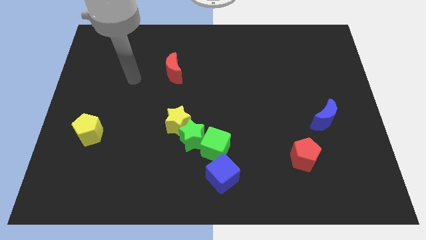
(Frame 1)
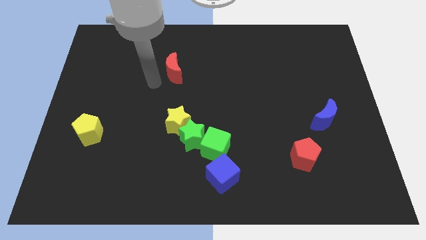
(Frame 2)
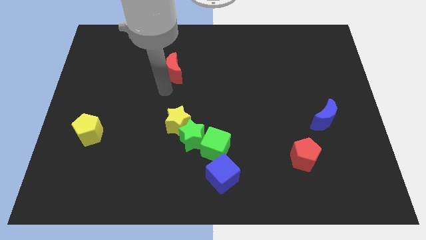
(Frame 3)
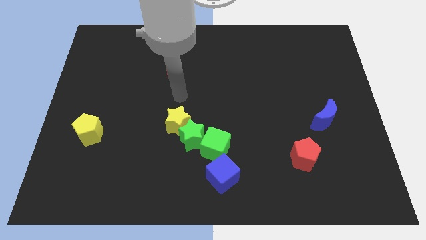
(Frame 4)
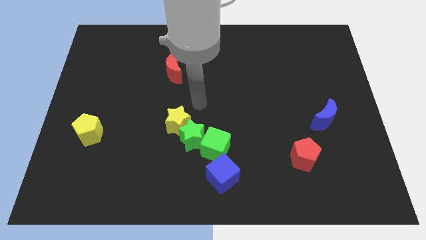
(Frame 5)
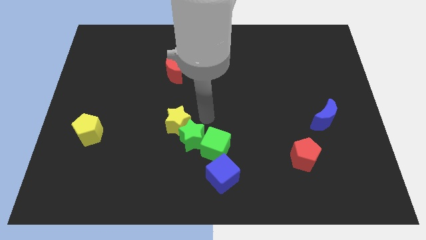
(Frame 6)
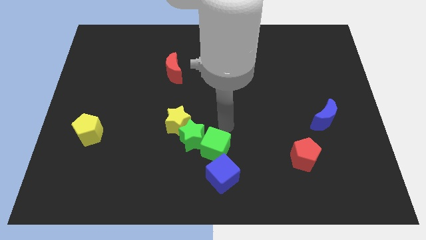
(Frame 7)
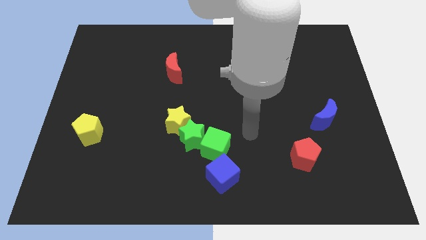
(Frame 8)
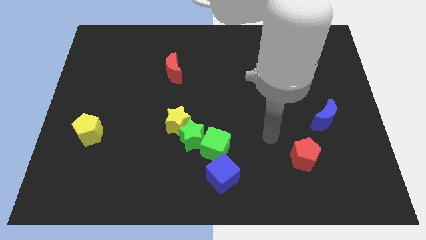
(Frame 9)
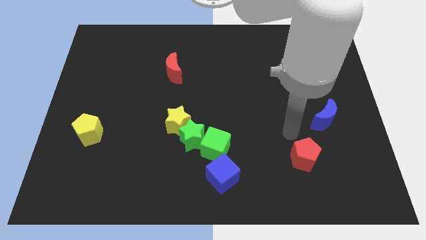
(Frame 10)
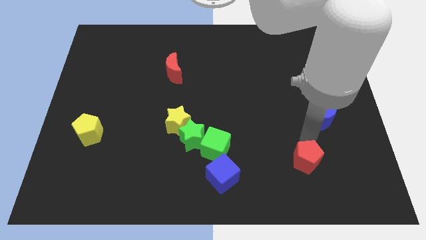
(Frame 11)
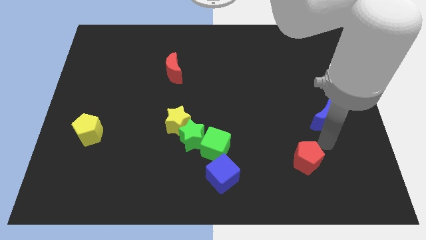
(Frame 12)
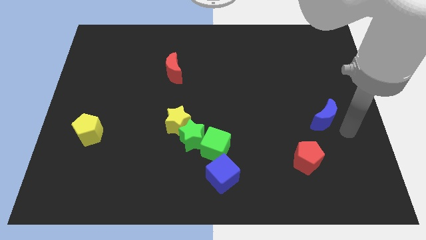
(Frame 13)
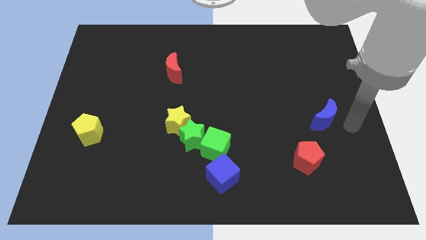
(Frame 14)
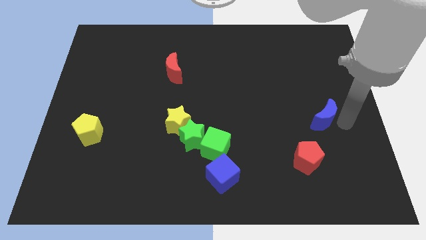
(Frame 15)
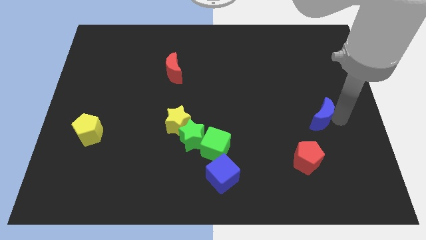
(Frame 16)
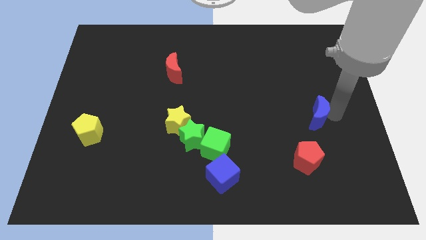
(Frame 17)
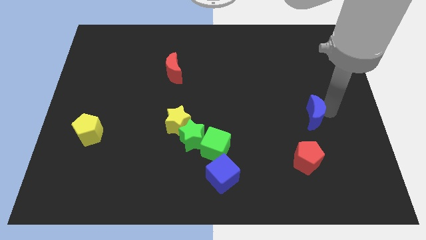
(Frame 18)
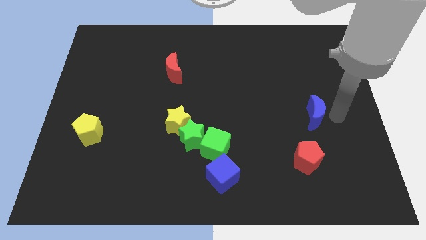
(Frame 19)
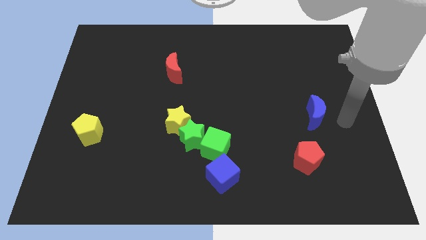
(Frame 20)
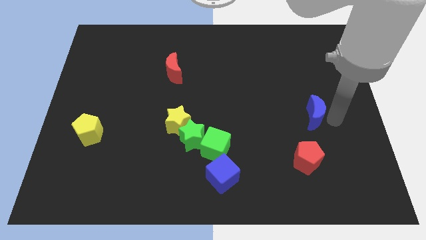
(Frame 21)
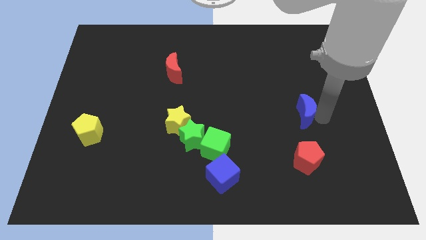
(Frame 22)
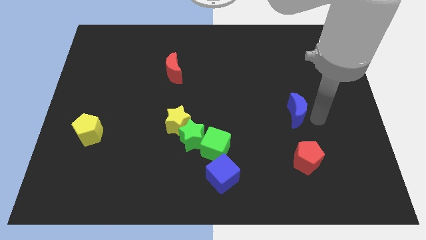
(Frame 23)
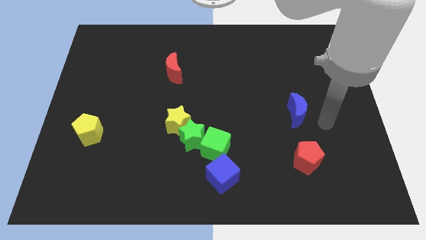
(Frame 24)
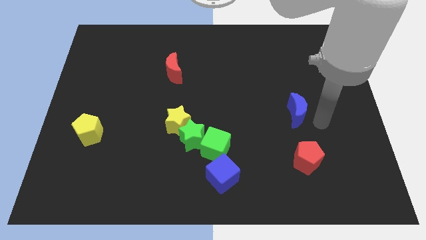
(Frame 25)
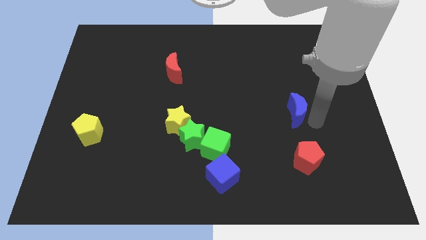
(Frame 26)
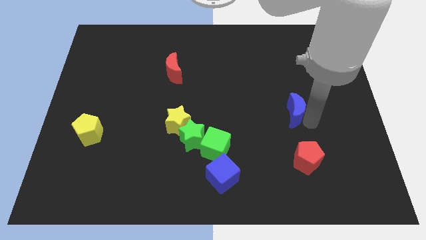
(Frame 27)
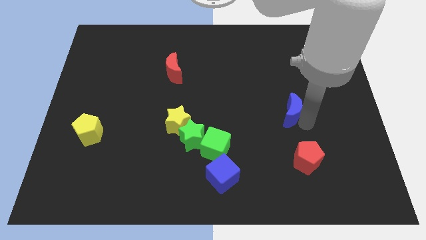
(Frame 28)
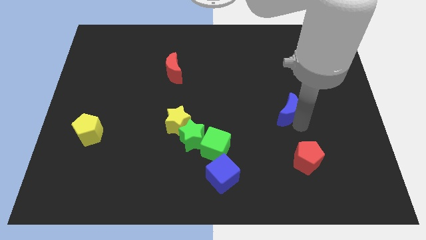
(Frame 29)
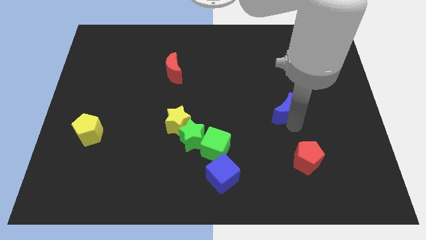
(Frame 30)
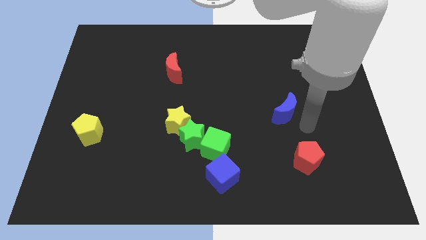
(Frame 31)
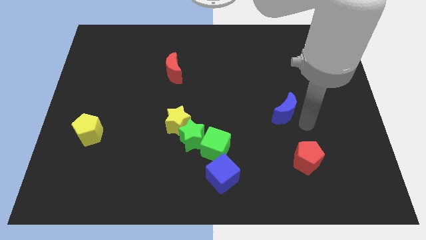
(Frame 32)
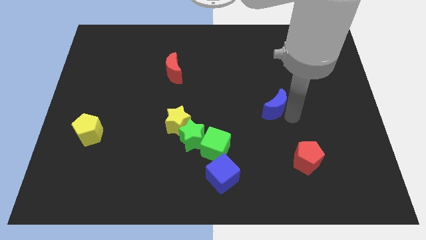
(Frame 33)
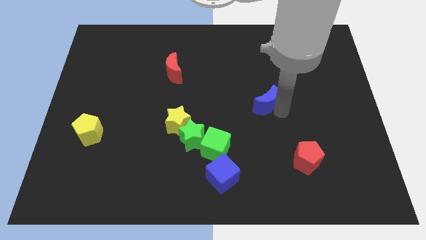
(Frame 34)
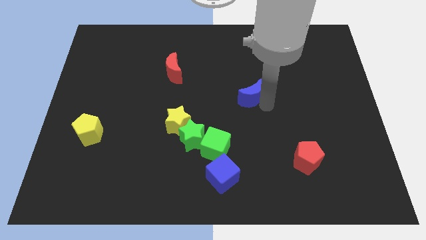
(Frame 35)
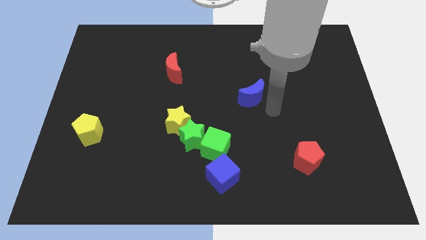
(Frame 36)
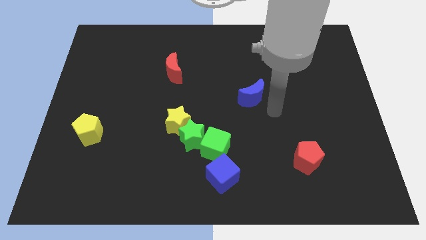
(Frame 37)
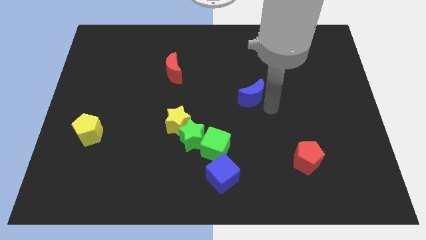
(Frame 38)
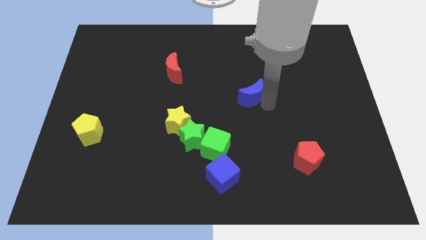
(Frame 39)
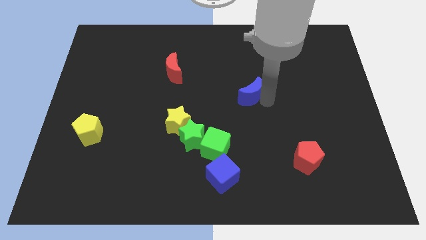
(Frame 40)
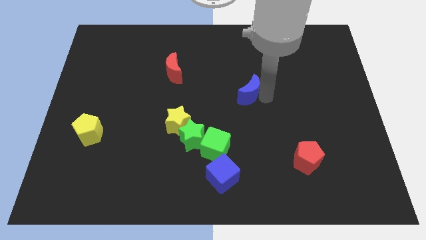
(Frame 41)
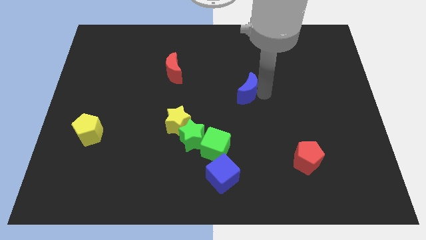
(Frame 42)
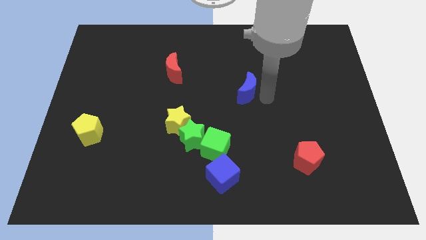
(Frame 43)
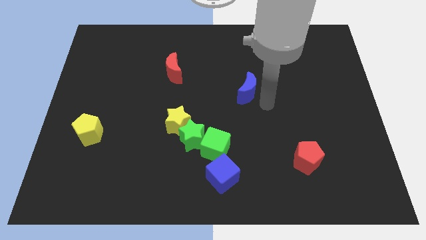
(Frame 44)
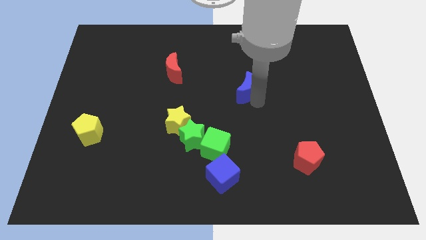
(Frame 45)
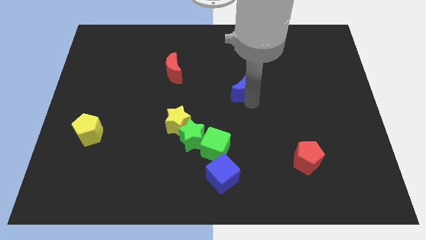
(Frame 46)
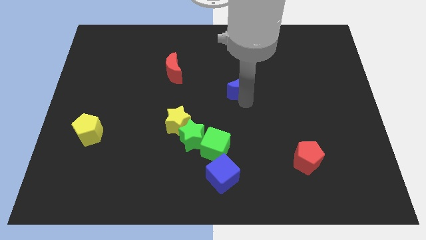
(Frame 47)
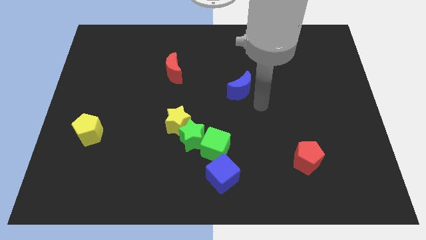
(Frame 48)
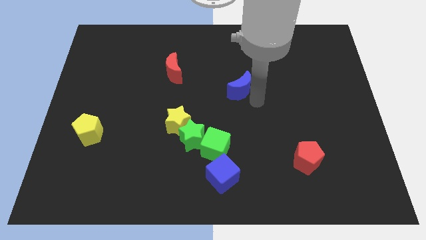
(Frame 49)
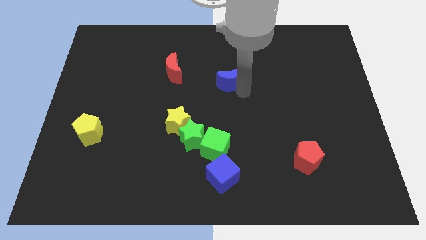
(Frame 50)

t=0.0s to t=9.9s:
push the blue moon right of the red moon

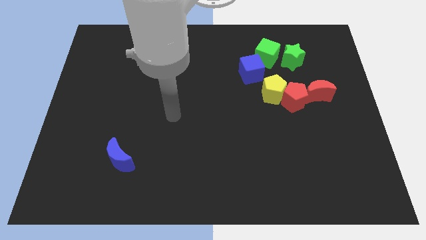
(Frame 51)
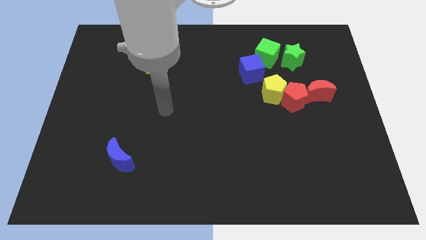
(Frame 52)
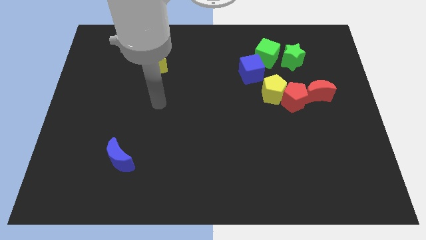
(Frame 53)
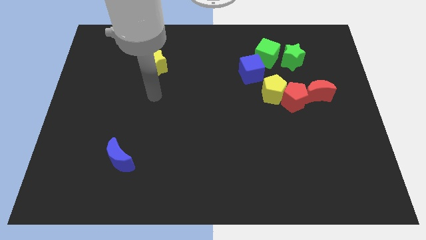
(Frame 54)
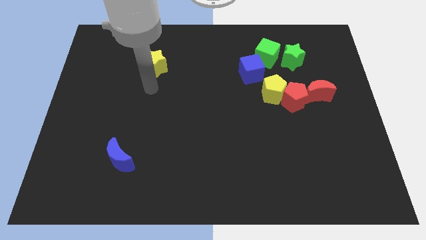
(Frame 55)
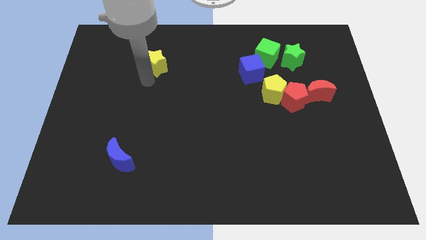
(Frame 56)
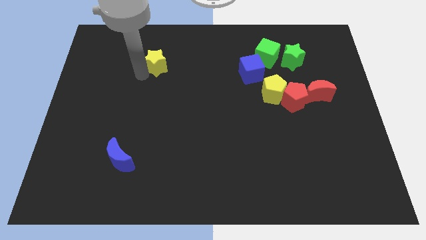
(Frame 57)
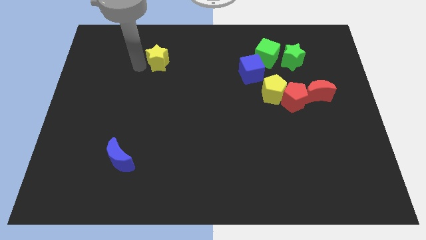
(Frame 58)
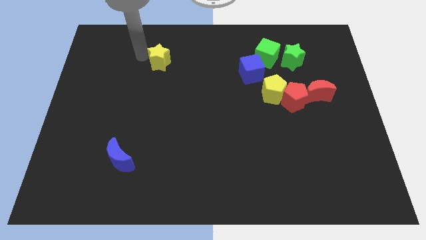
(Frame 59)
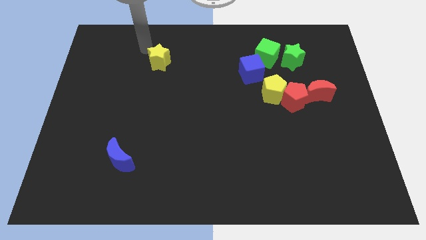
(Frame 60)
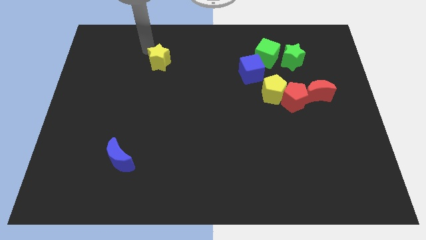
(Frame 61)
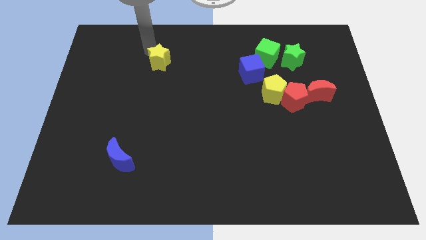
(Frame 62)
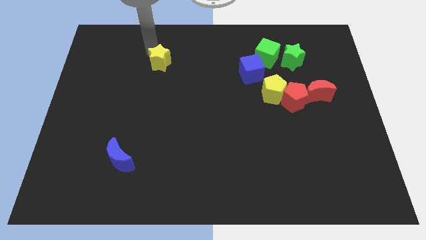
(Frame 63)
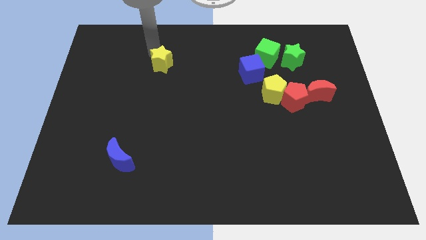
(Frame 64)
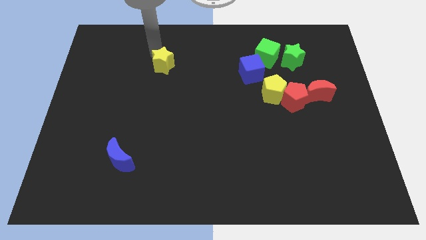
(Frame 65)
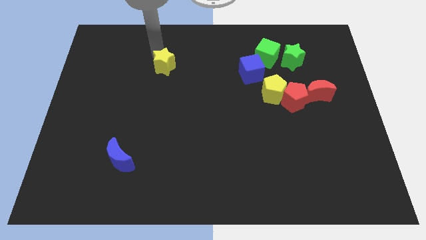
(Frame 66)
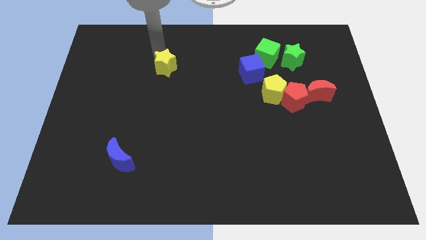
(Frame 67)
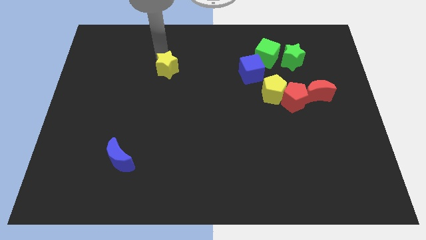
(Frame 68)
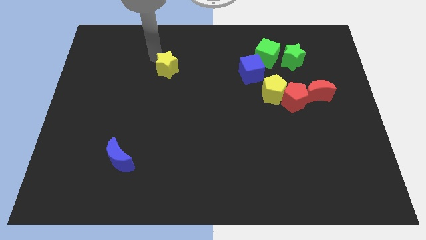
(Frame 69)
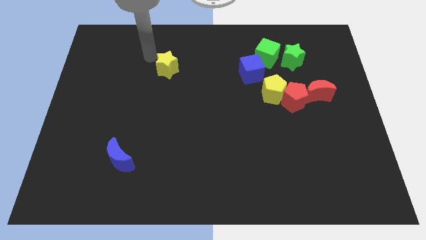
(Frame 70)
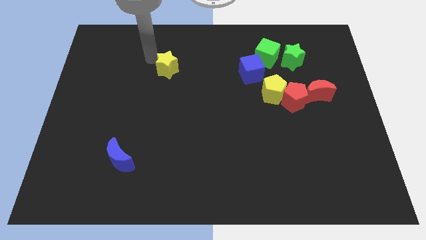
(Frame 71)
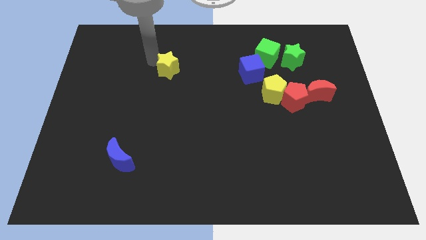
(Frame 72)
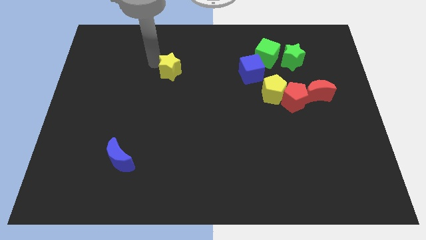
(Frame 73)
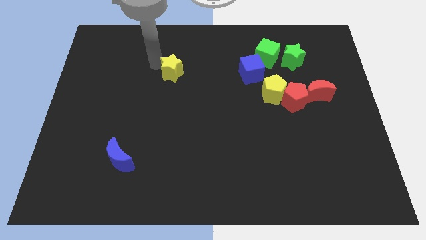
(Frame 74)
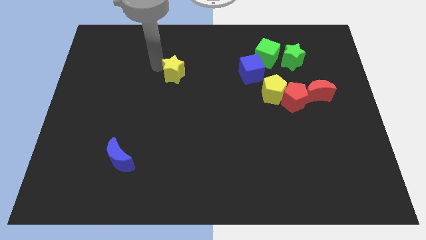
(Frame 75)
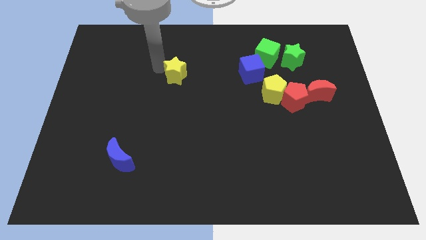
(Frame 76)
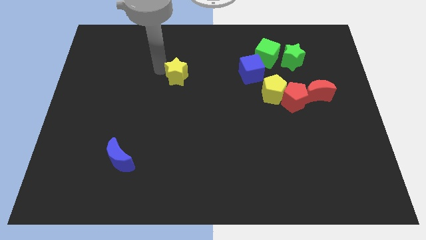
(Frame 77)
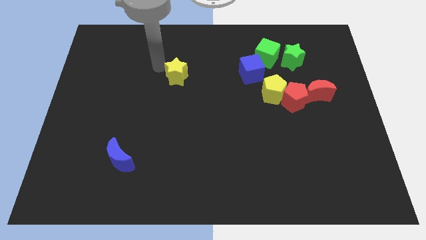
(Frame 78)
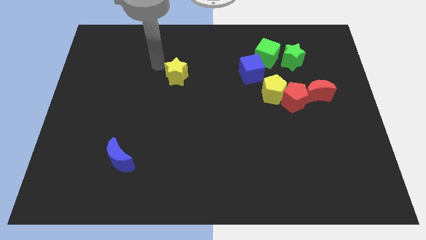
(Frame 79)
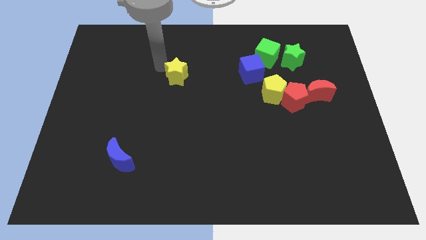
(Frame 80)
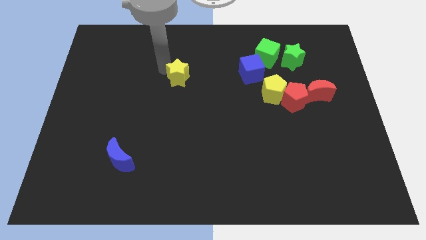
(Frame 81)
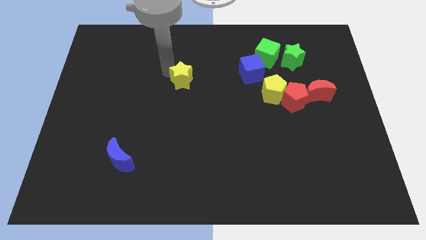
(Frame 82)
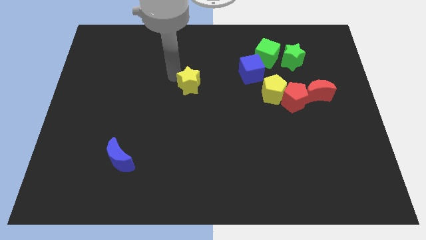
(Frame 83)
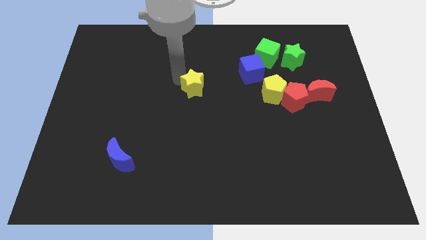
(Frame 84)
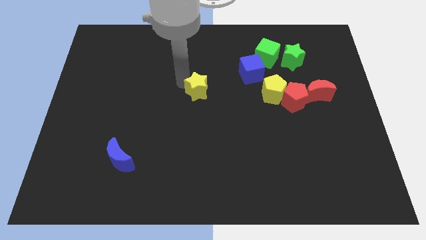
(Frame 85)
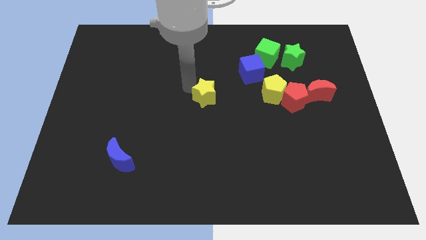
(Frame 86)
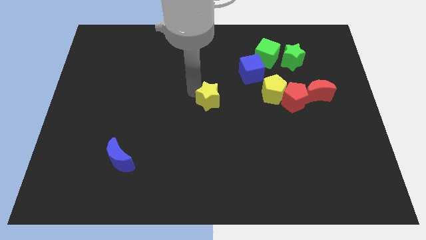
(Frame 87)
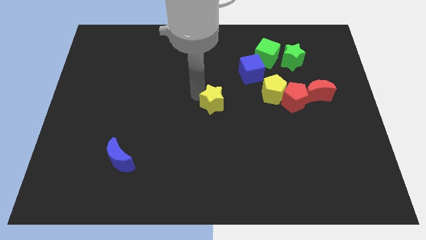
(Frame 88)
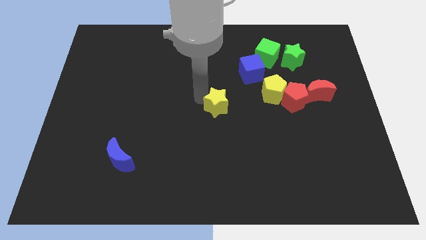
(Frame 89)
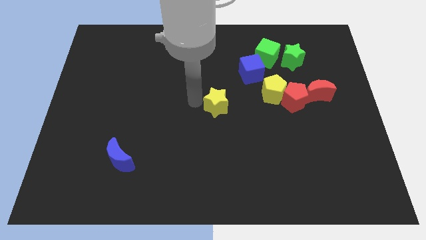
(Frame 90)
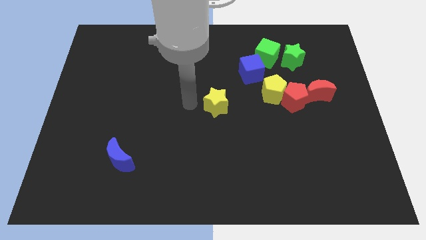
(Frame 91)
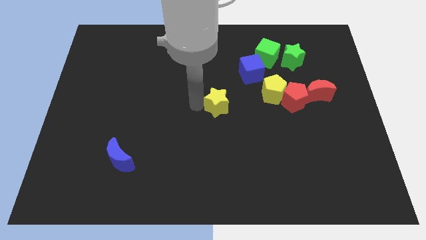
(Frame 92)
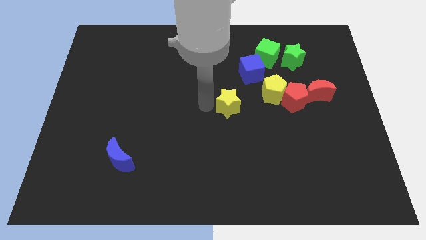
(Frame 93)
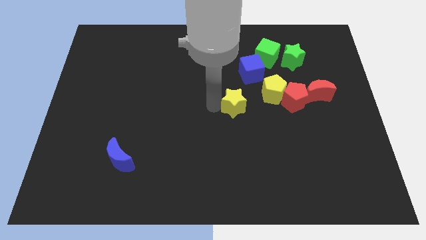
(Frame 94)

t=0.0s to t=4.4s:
slide the yellow star diagonally down and to the left of the yellow pentagon
